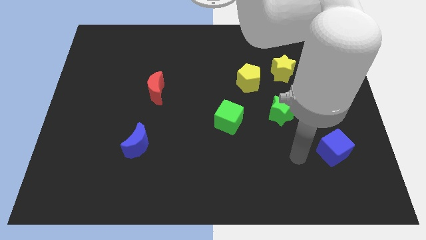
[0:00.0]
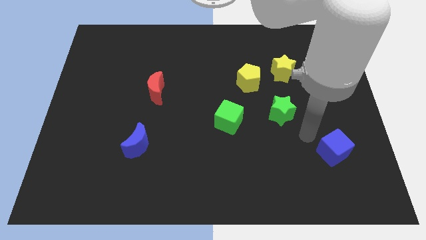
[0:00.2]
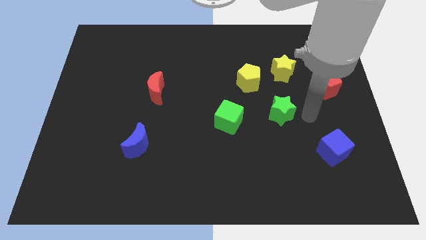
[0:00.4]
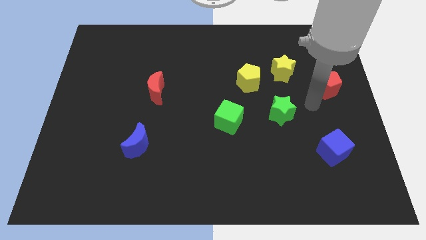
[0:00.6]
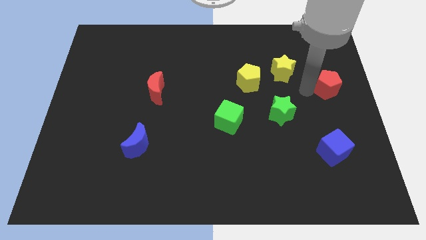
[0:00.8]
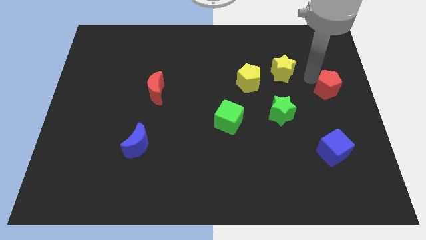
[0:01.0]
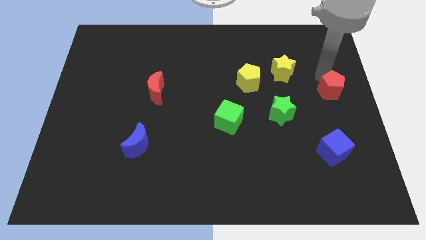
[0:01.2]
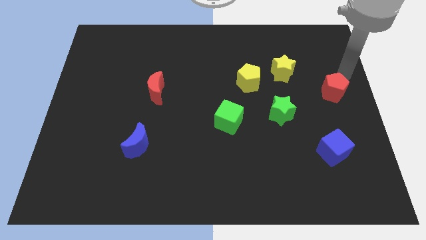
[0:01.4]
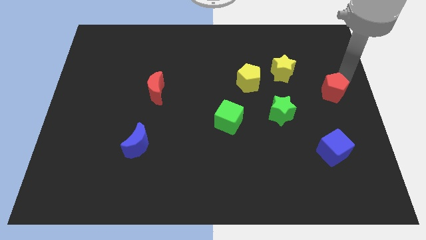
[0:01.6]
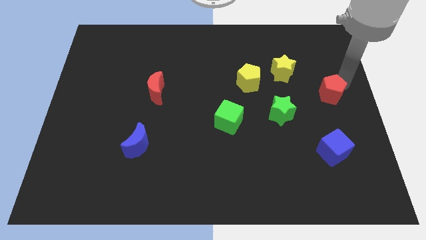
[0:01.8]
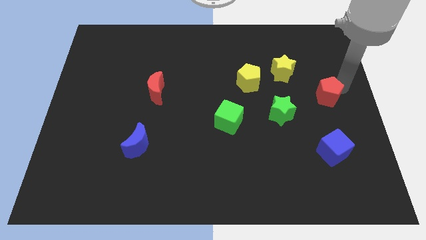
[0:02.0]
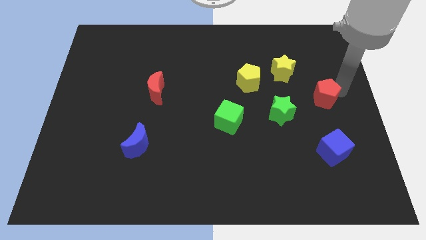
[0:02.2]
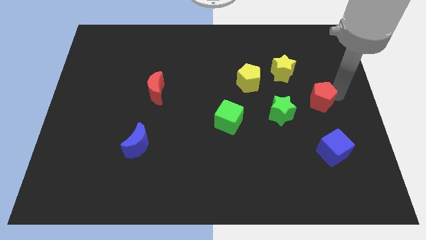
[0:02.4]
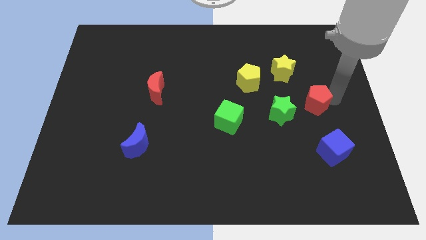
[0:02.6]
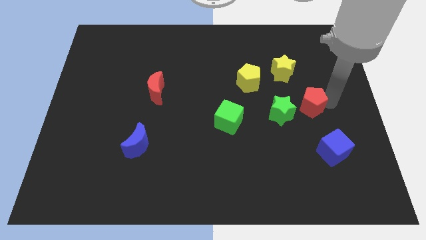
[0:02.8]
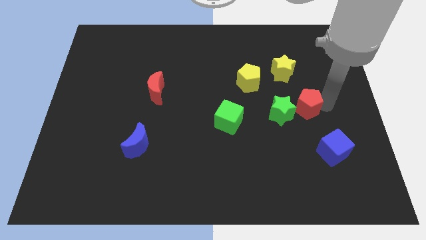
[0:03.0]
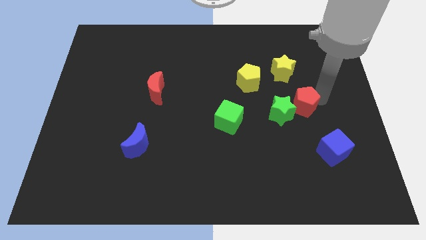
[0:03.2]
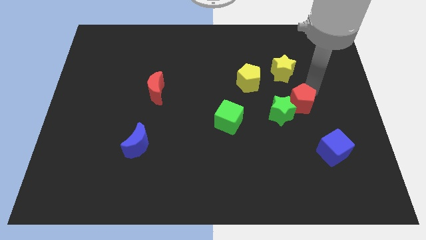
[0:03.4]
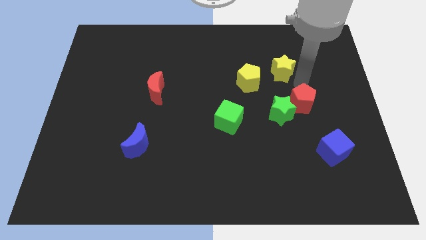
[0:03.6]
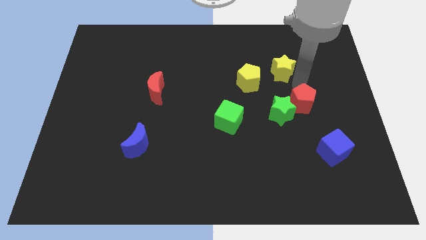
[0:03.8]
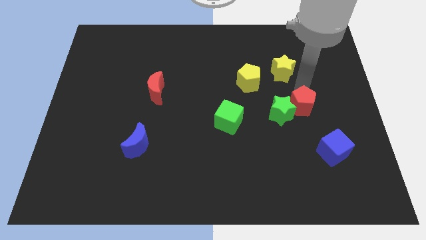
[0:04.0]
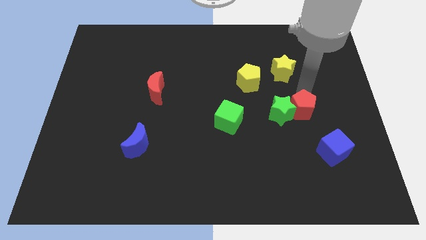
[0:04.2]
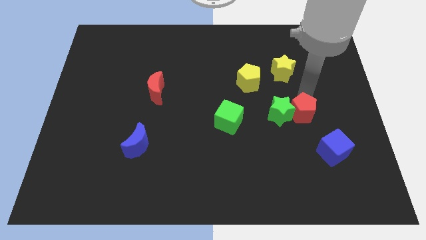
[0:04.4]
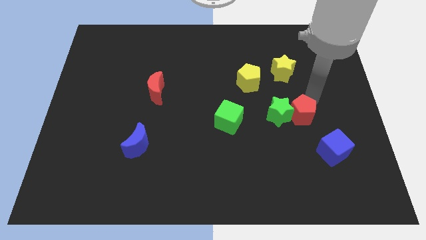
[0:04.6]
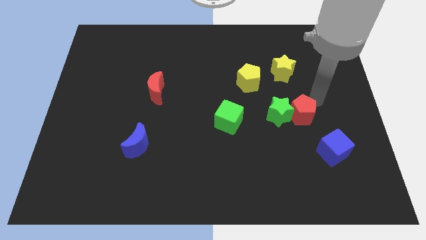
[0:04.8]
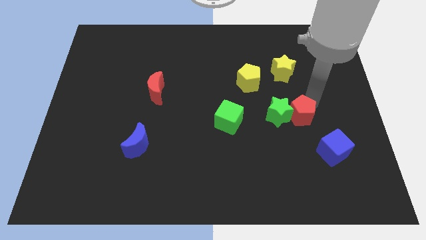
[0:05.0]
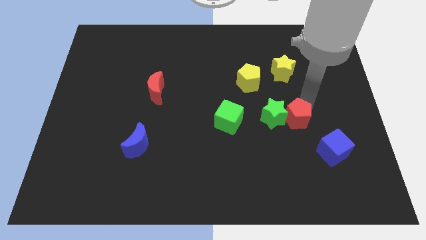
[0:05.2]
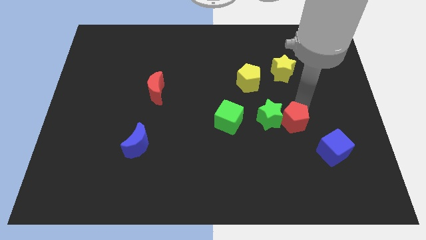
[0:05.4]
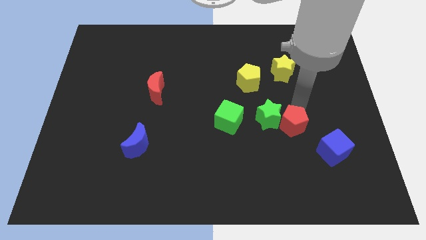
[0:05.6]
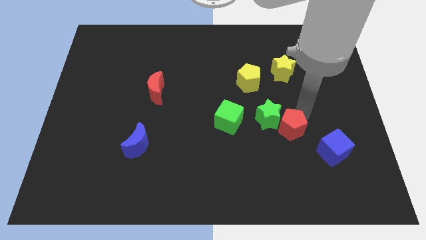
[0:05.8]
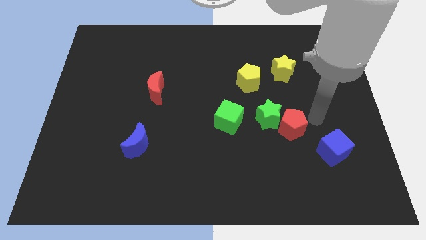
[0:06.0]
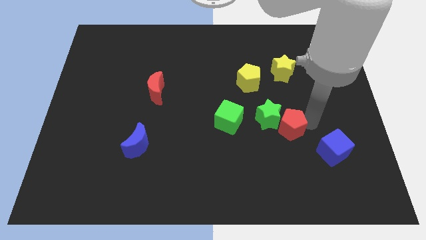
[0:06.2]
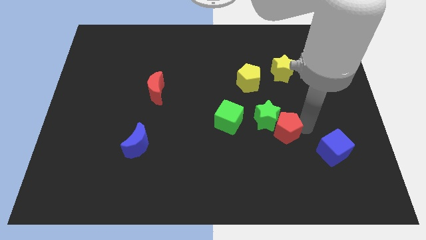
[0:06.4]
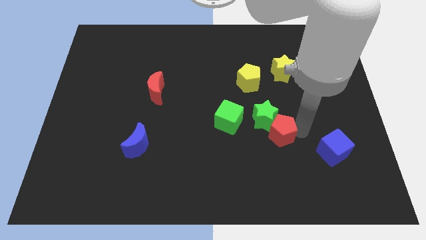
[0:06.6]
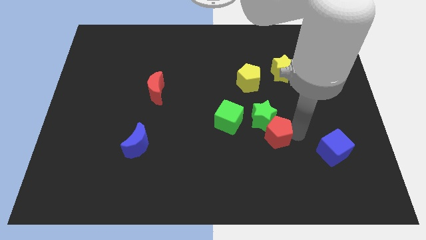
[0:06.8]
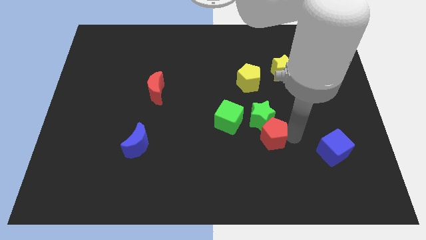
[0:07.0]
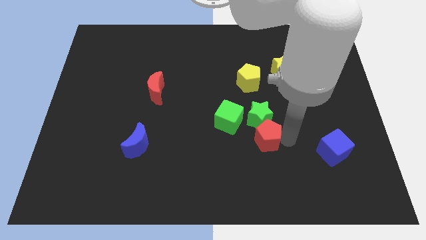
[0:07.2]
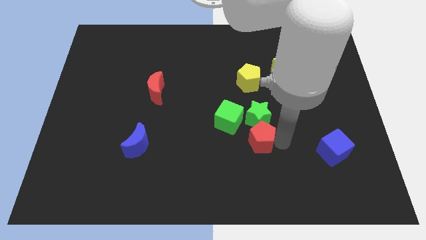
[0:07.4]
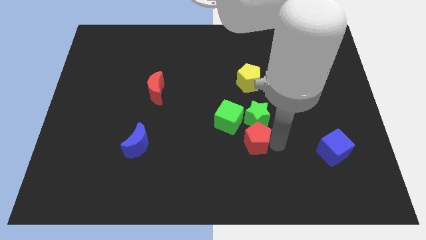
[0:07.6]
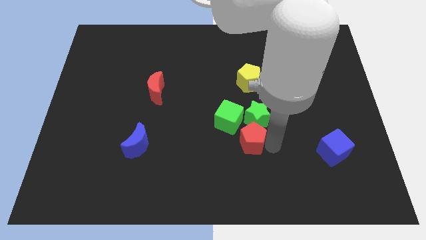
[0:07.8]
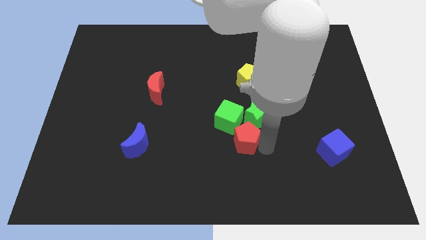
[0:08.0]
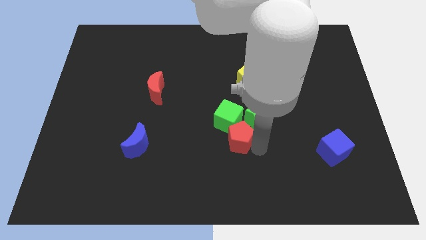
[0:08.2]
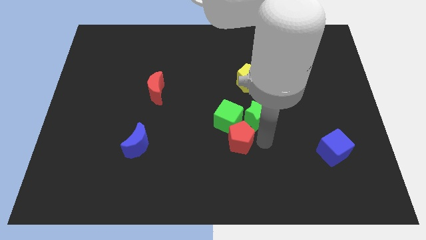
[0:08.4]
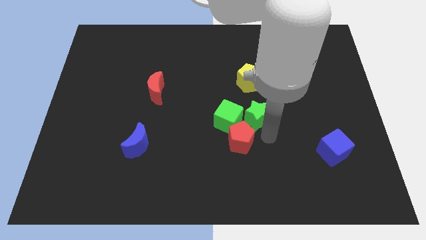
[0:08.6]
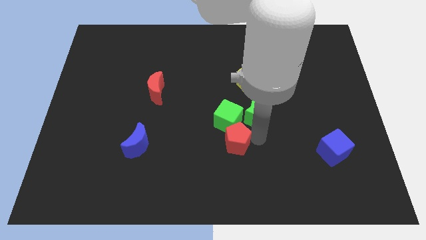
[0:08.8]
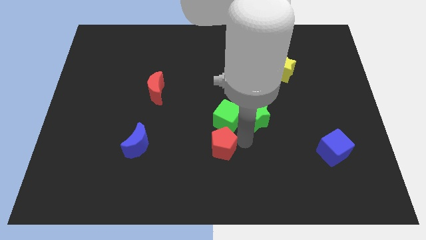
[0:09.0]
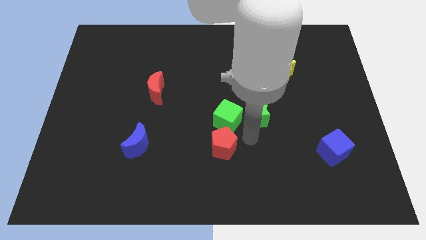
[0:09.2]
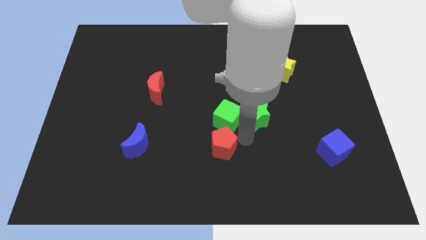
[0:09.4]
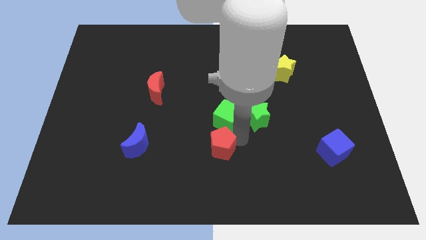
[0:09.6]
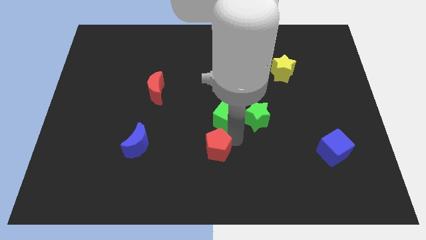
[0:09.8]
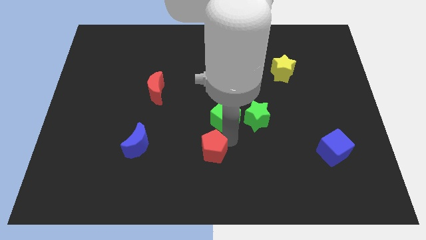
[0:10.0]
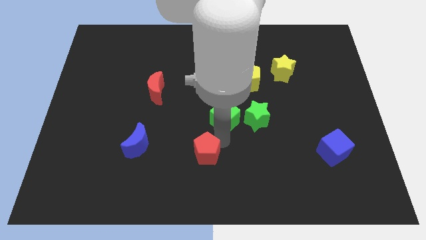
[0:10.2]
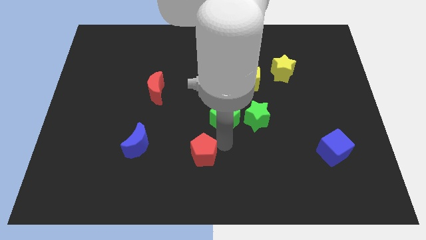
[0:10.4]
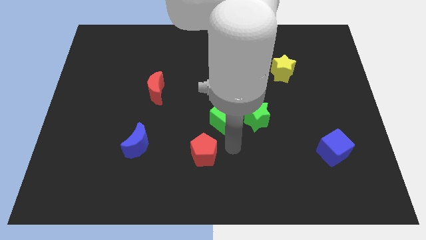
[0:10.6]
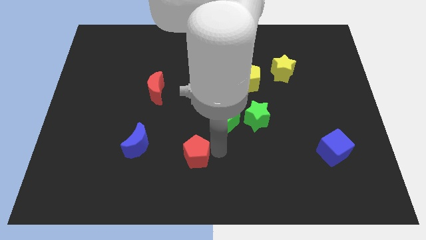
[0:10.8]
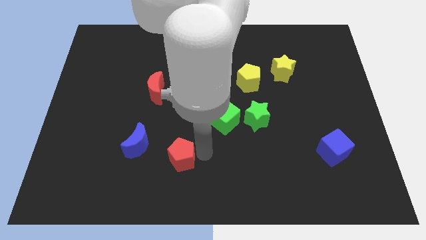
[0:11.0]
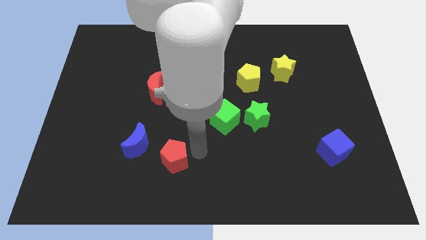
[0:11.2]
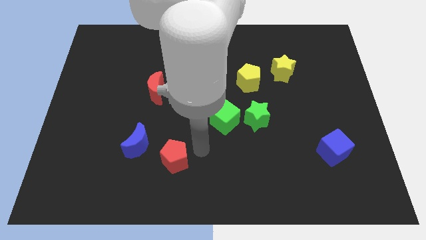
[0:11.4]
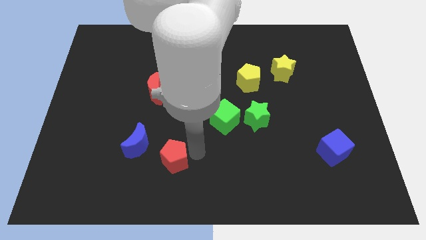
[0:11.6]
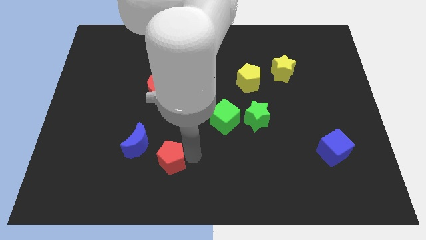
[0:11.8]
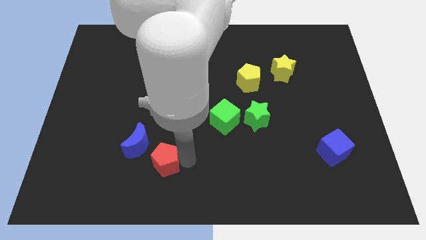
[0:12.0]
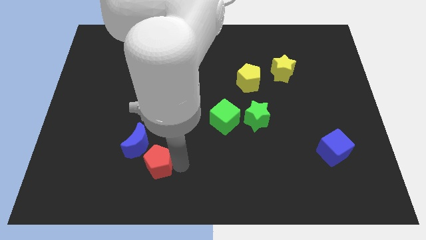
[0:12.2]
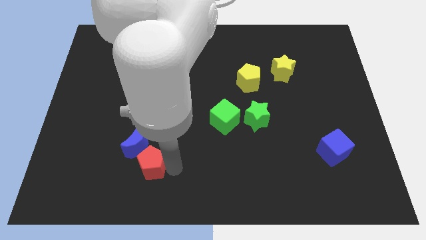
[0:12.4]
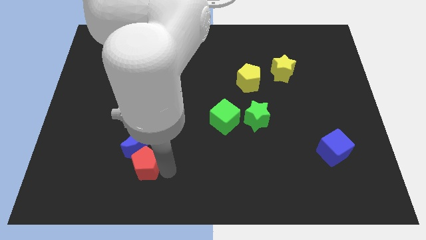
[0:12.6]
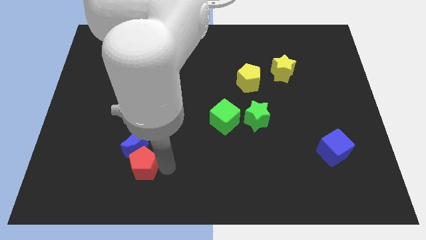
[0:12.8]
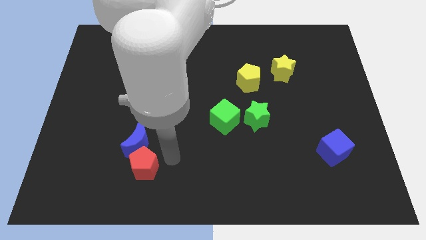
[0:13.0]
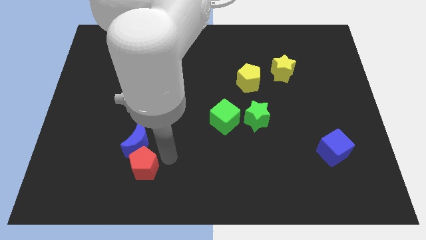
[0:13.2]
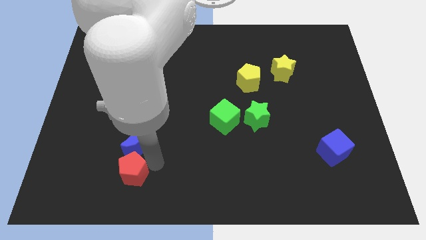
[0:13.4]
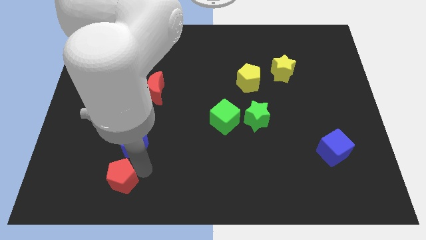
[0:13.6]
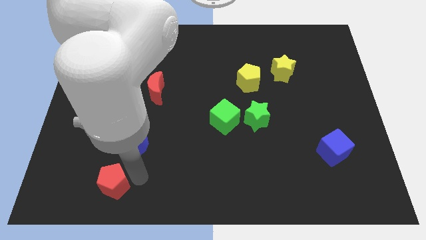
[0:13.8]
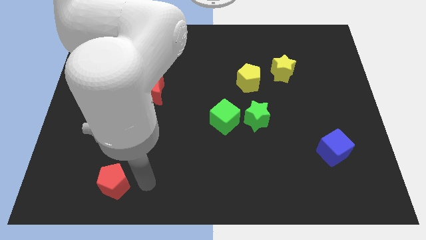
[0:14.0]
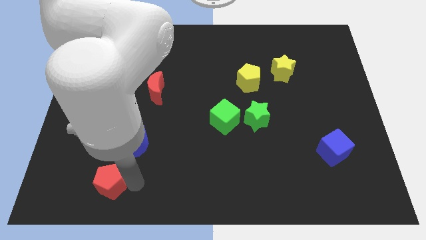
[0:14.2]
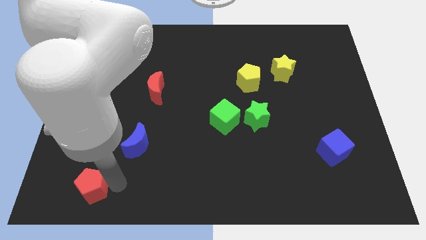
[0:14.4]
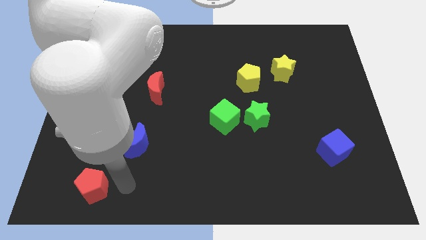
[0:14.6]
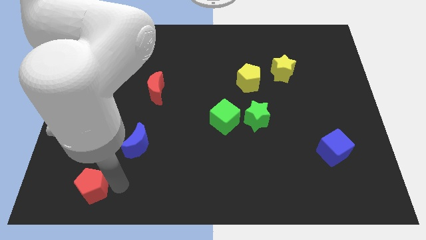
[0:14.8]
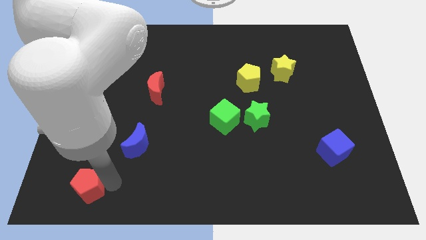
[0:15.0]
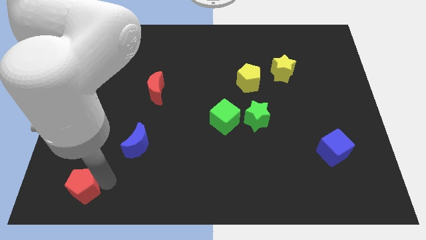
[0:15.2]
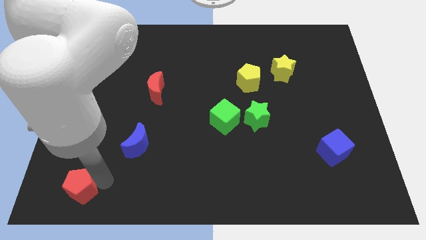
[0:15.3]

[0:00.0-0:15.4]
move the red pentagon to the lower left corner
